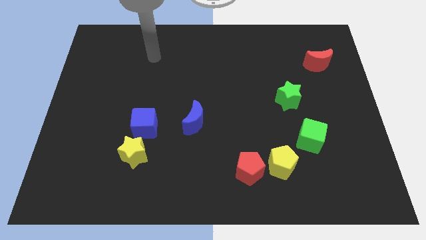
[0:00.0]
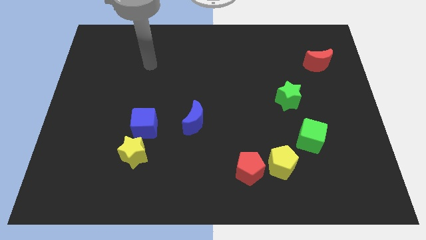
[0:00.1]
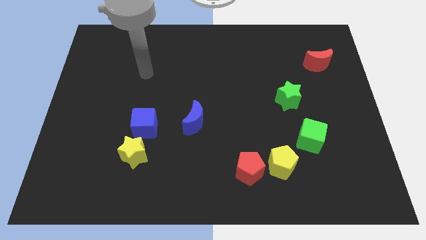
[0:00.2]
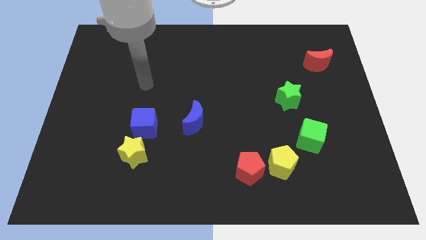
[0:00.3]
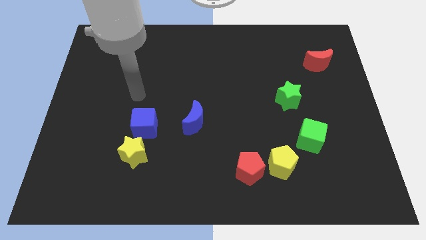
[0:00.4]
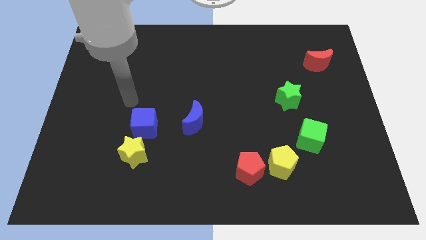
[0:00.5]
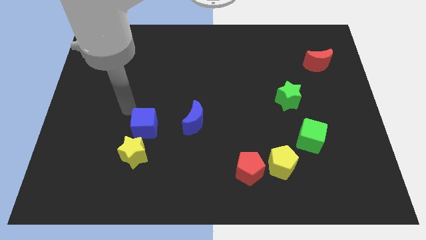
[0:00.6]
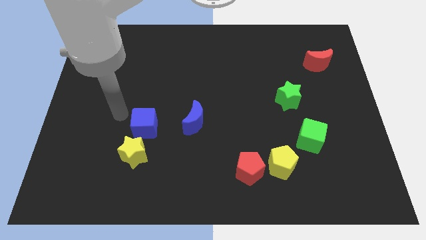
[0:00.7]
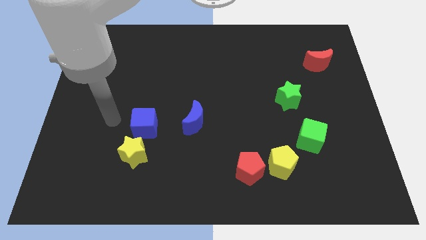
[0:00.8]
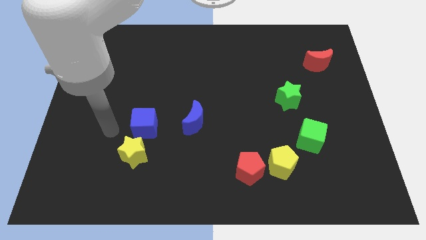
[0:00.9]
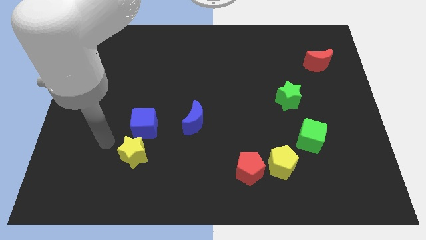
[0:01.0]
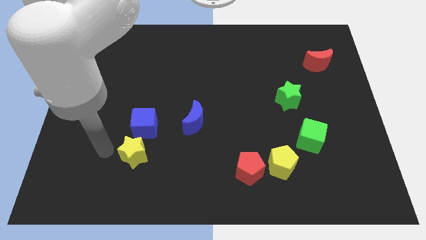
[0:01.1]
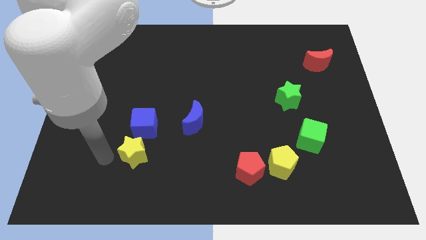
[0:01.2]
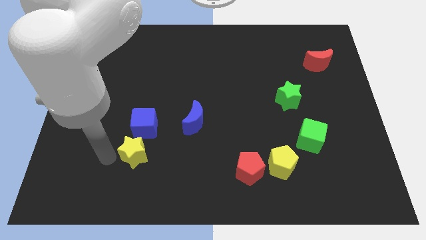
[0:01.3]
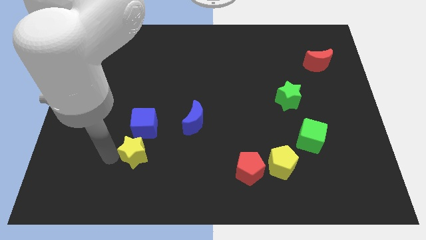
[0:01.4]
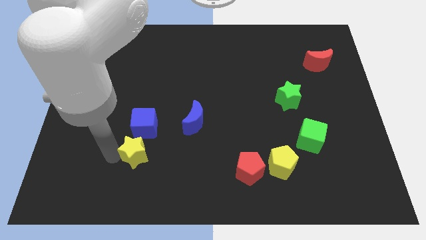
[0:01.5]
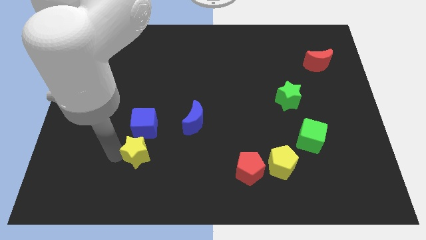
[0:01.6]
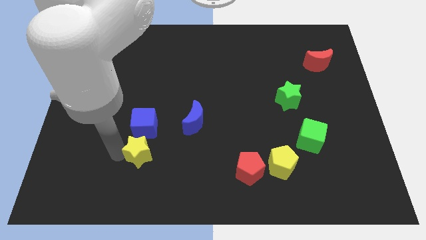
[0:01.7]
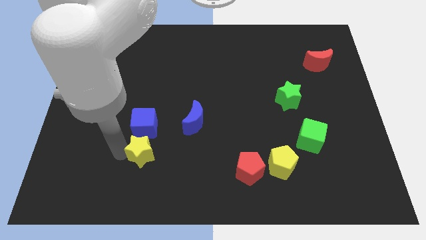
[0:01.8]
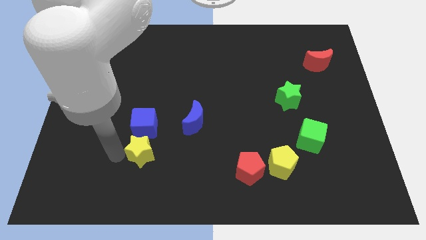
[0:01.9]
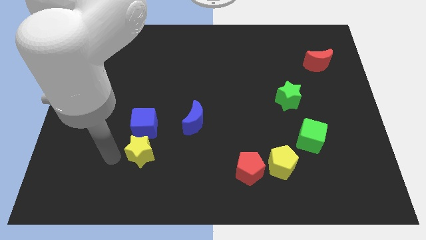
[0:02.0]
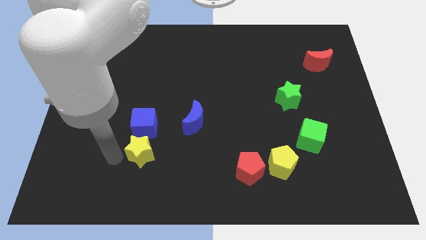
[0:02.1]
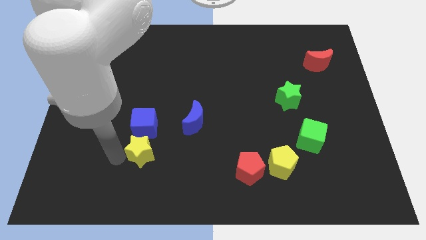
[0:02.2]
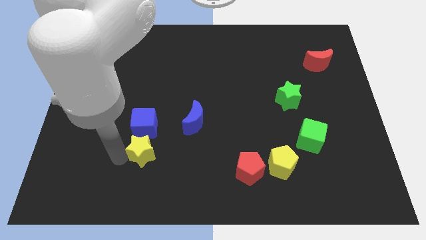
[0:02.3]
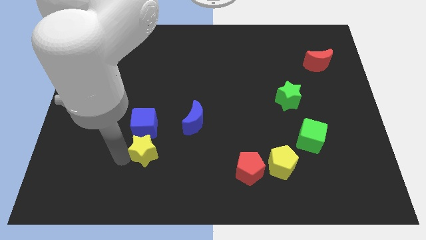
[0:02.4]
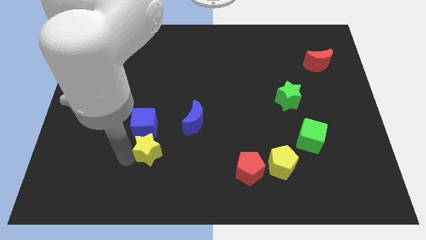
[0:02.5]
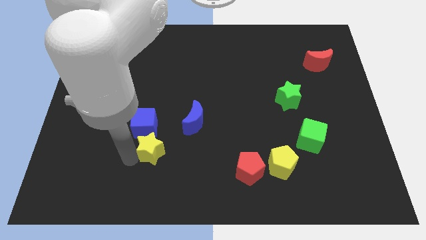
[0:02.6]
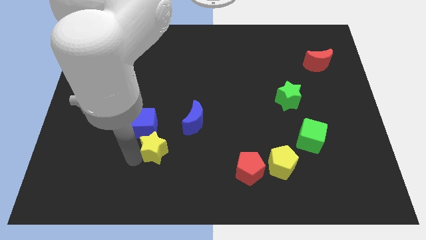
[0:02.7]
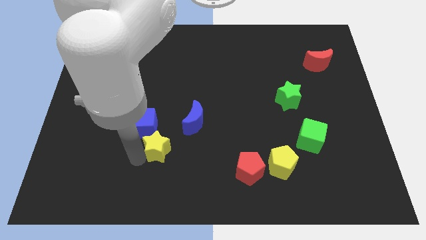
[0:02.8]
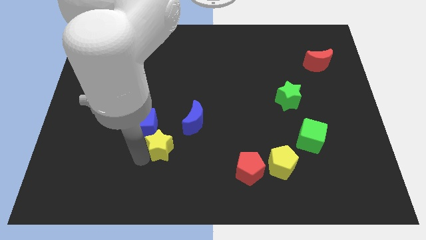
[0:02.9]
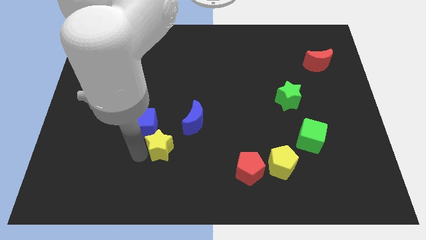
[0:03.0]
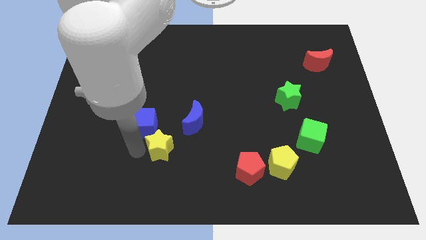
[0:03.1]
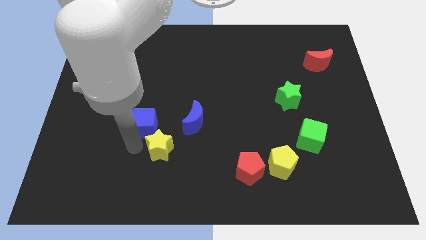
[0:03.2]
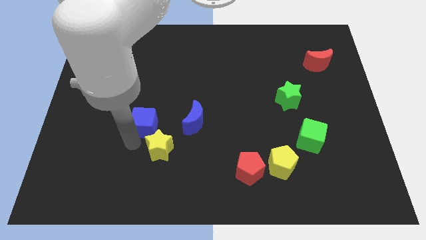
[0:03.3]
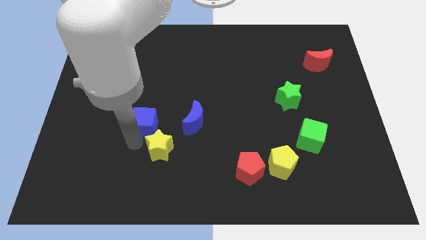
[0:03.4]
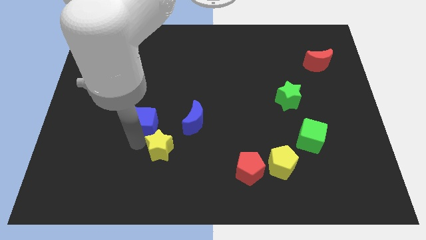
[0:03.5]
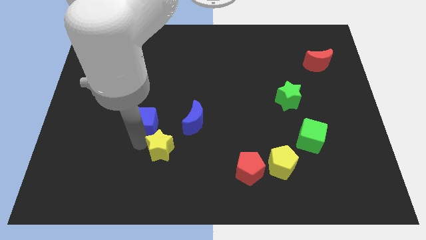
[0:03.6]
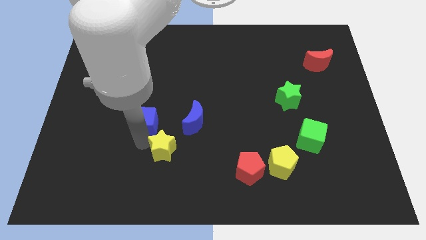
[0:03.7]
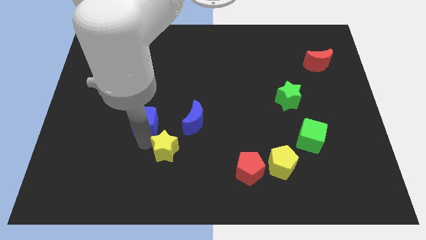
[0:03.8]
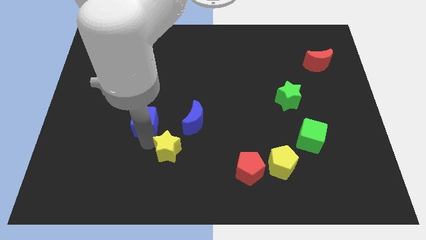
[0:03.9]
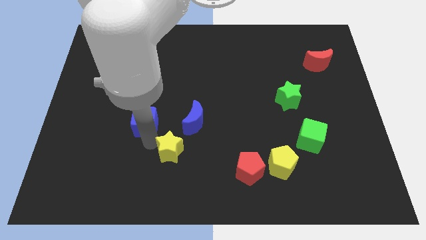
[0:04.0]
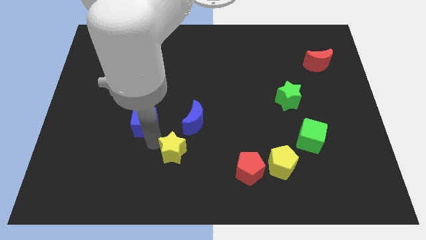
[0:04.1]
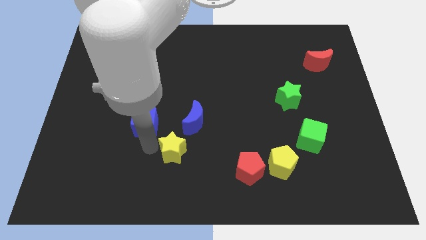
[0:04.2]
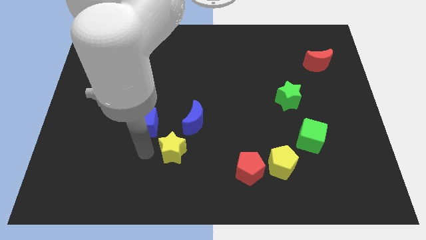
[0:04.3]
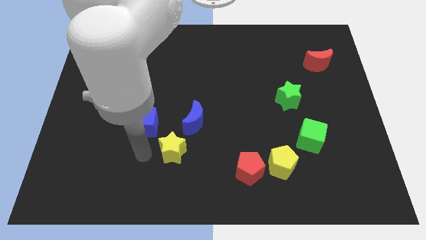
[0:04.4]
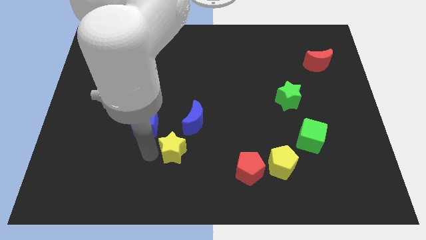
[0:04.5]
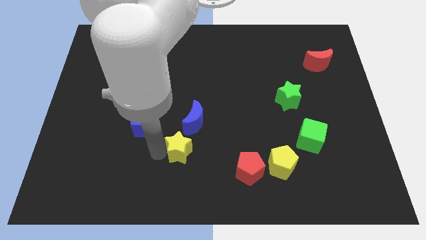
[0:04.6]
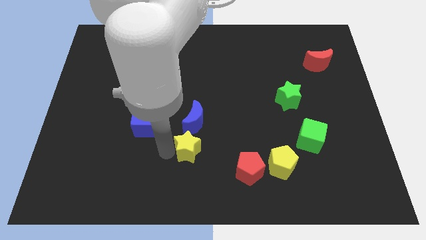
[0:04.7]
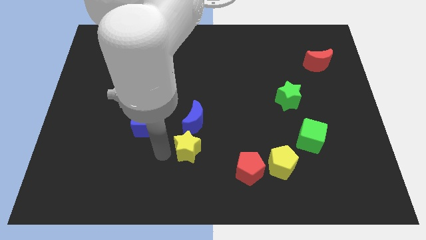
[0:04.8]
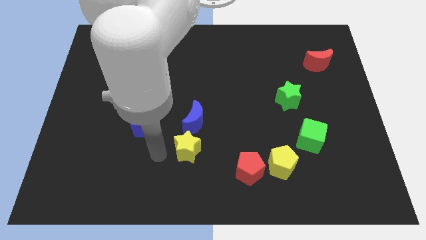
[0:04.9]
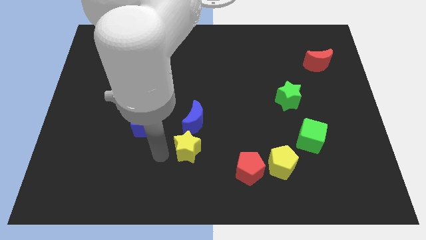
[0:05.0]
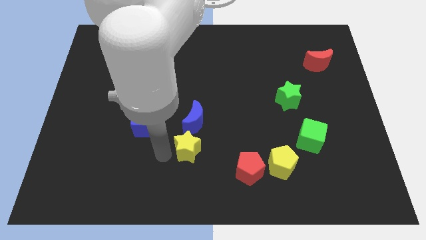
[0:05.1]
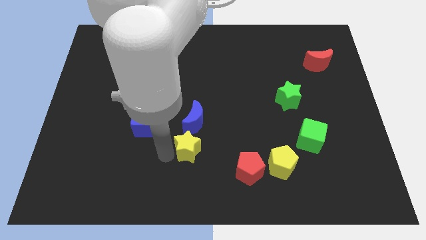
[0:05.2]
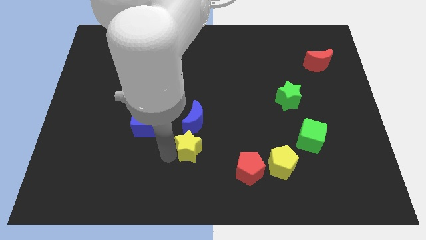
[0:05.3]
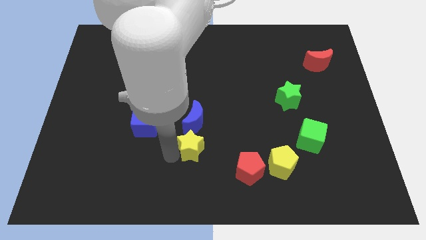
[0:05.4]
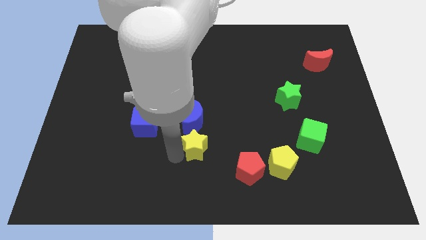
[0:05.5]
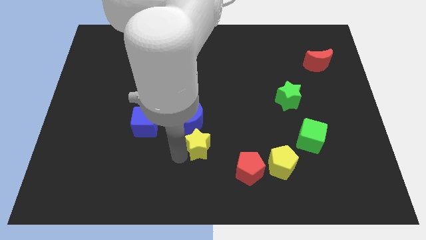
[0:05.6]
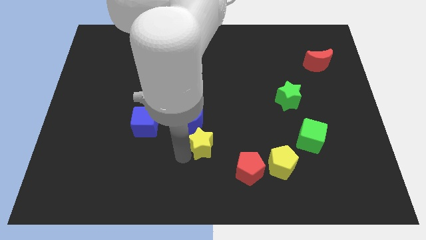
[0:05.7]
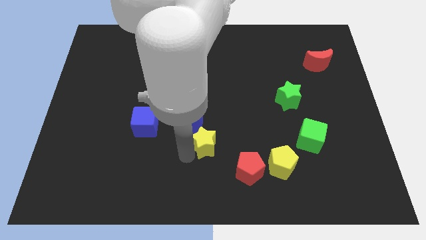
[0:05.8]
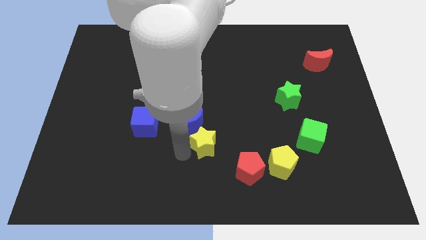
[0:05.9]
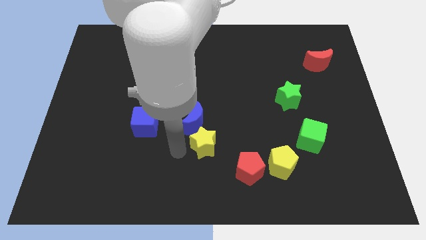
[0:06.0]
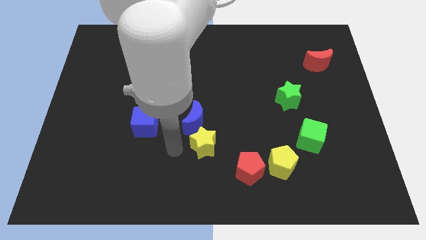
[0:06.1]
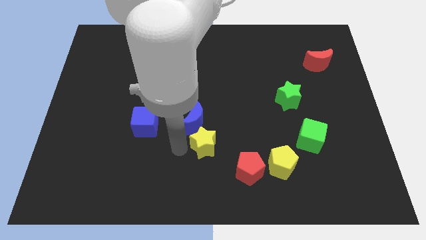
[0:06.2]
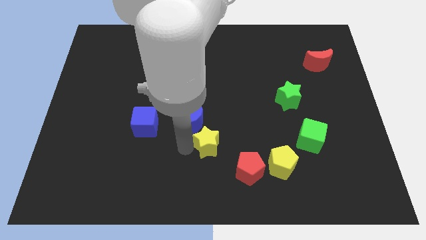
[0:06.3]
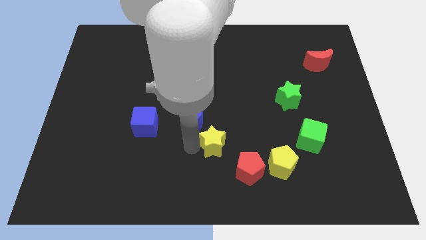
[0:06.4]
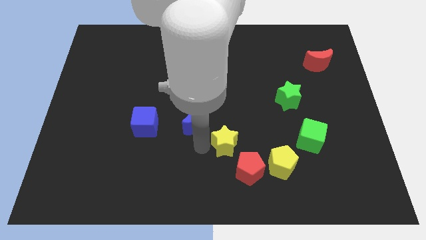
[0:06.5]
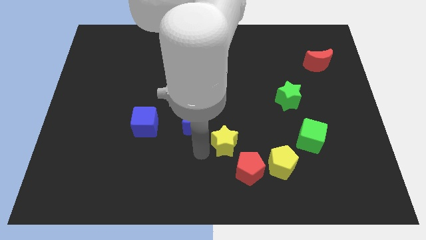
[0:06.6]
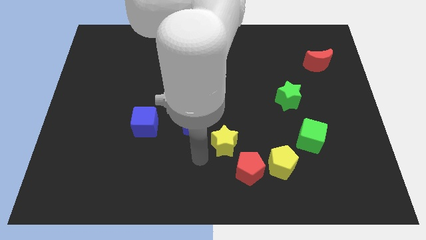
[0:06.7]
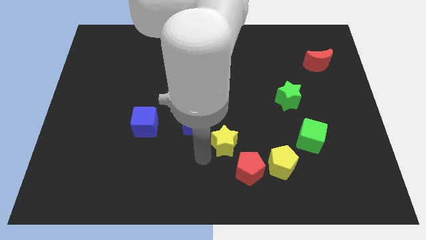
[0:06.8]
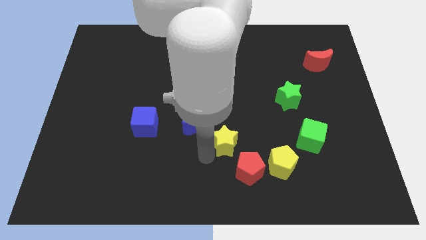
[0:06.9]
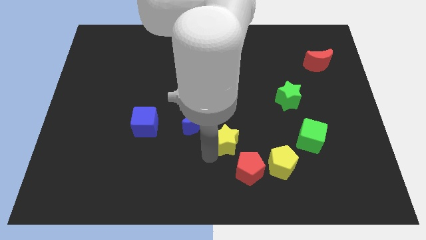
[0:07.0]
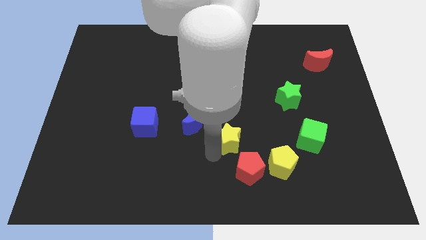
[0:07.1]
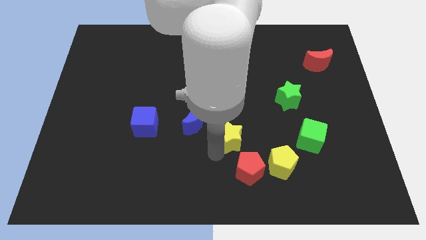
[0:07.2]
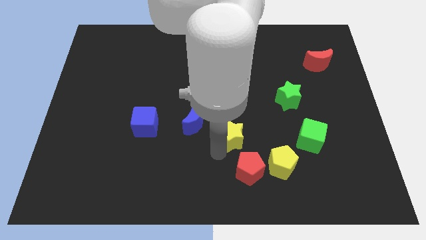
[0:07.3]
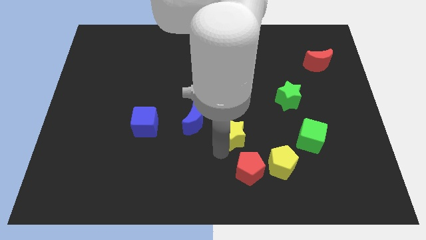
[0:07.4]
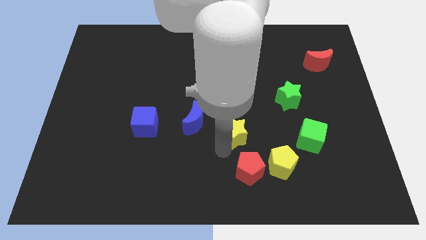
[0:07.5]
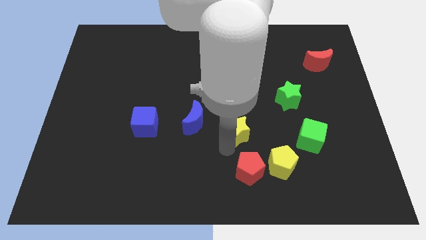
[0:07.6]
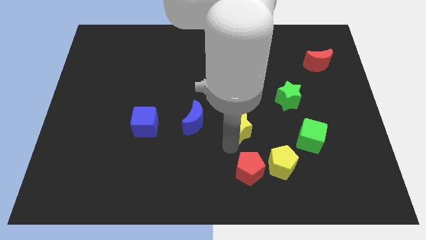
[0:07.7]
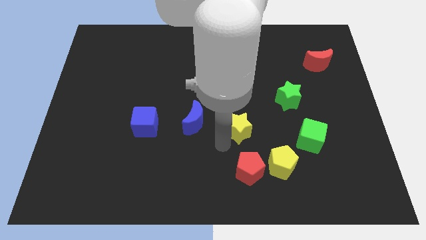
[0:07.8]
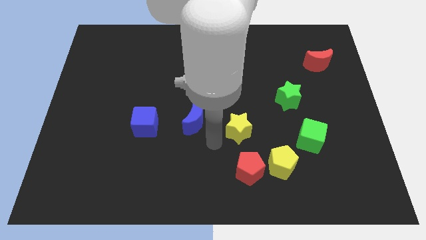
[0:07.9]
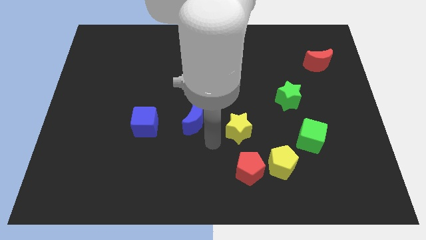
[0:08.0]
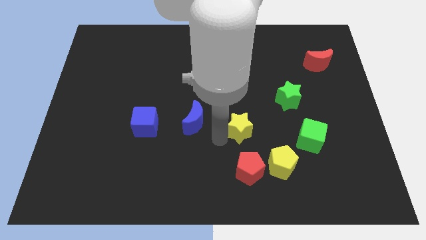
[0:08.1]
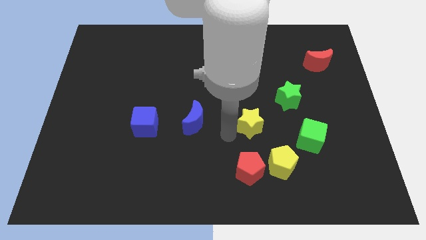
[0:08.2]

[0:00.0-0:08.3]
move the yellow star to the bottom left side of the green star
